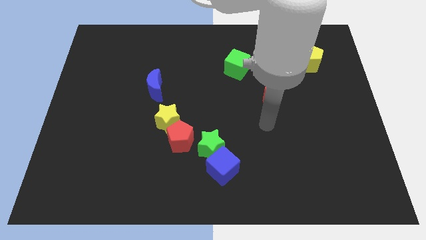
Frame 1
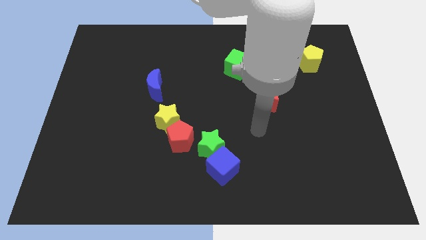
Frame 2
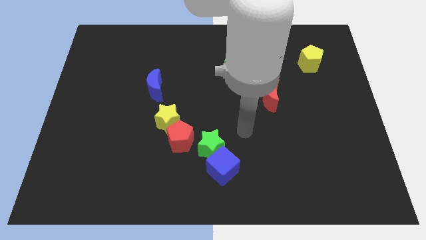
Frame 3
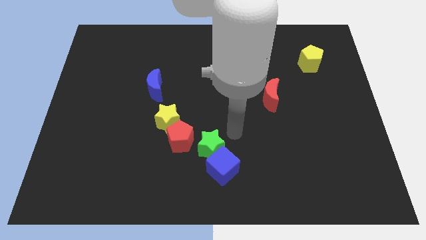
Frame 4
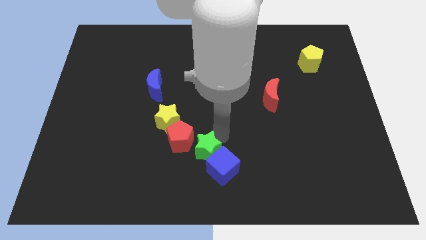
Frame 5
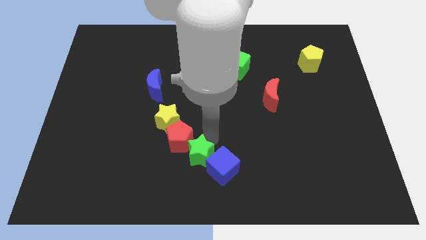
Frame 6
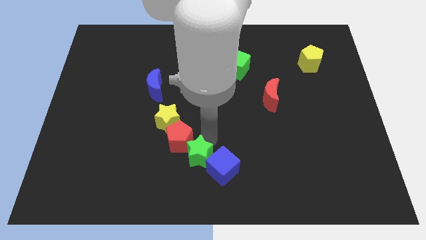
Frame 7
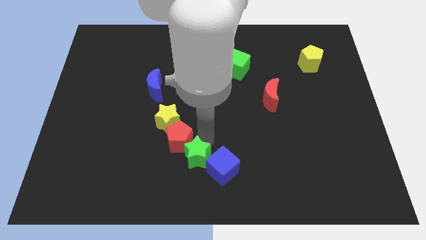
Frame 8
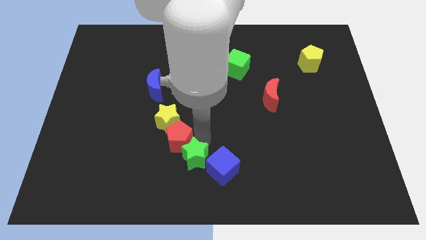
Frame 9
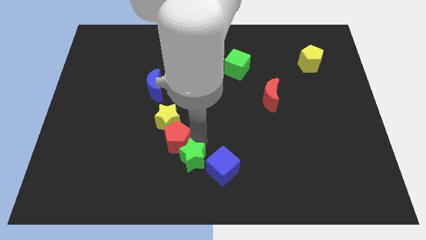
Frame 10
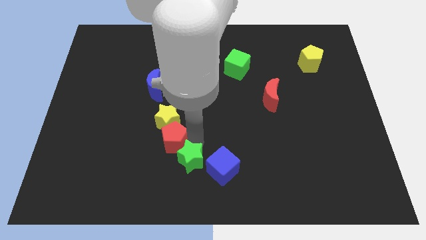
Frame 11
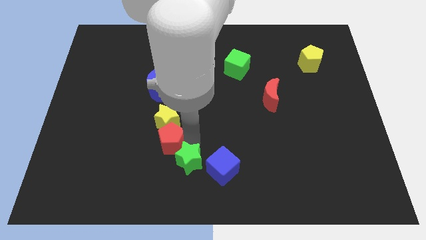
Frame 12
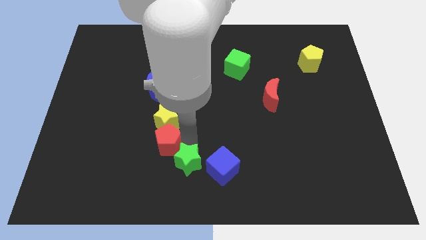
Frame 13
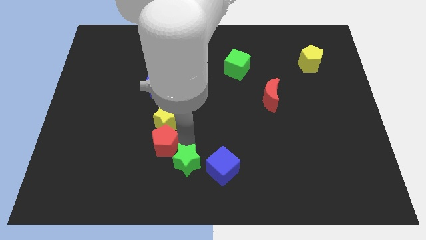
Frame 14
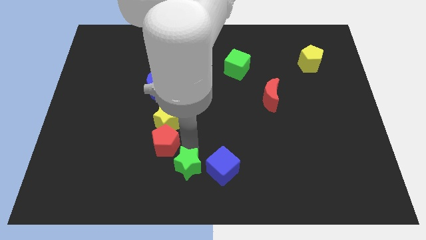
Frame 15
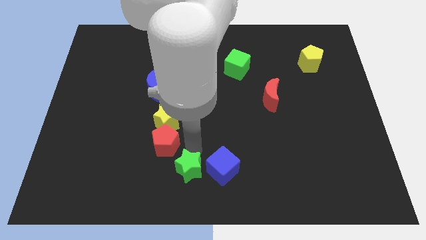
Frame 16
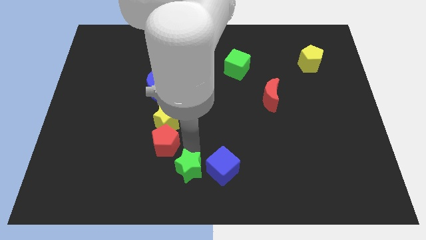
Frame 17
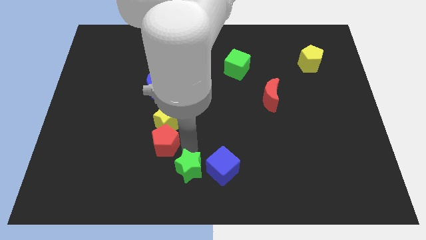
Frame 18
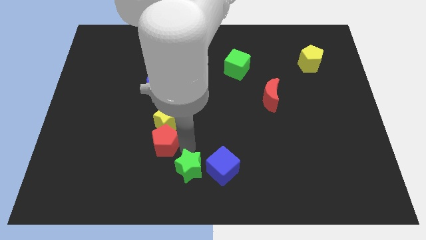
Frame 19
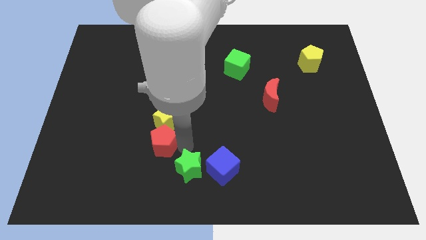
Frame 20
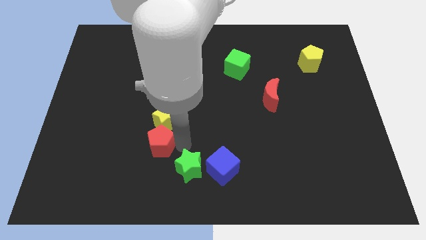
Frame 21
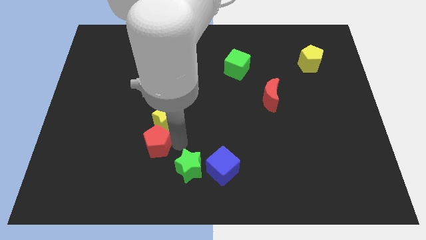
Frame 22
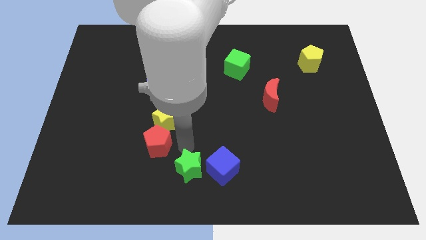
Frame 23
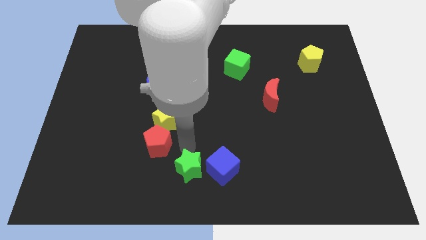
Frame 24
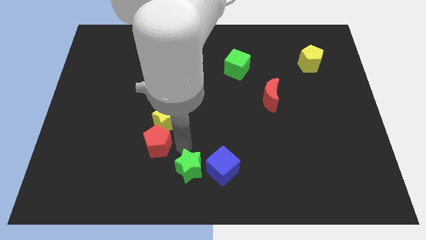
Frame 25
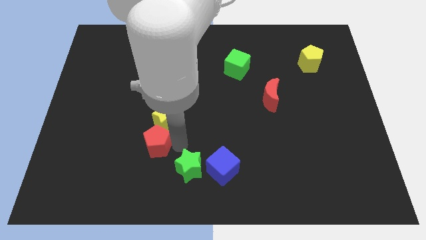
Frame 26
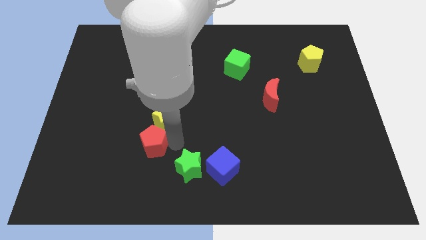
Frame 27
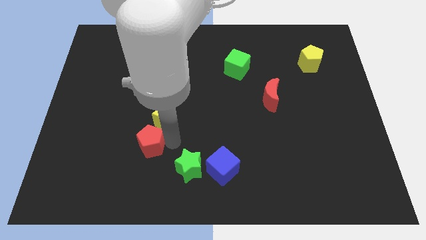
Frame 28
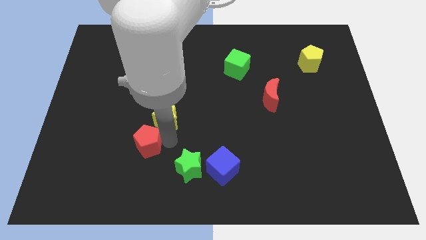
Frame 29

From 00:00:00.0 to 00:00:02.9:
push the red pentagon to the left slightly

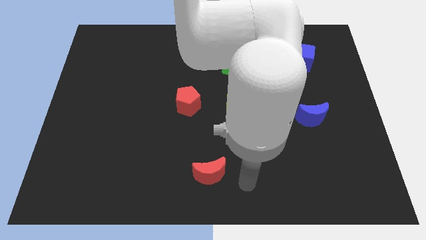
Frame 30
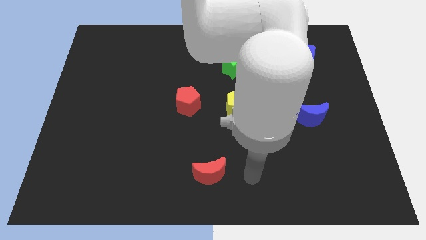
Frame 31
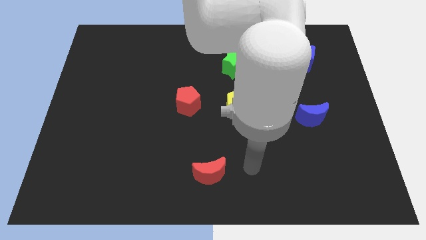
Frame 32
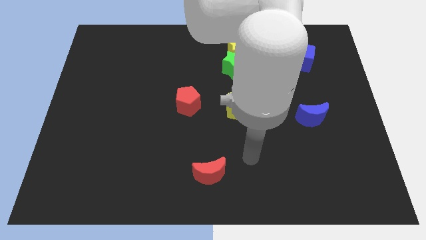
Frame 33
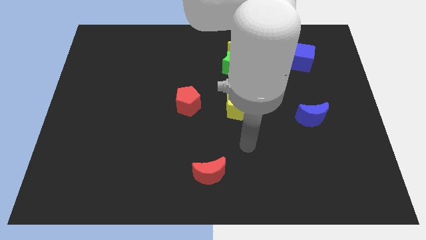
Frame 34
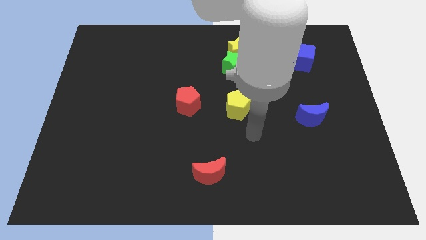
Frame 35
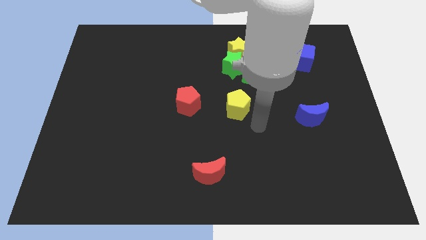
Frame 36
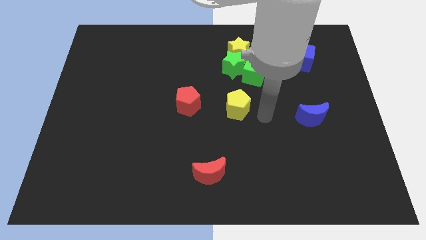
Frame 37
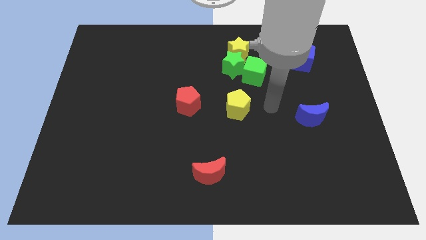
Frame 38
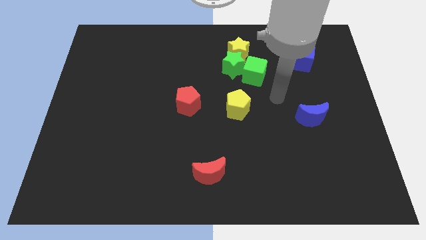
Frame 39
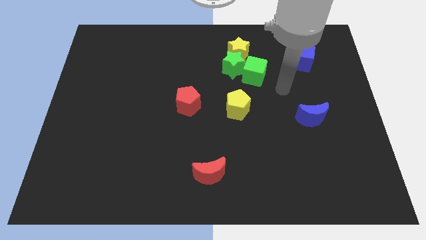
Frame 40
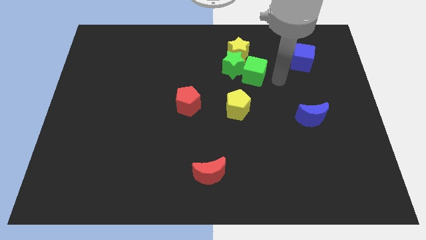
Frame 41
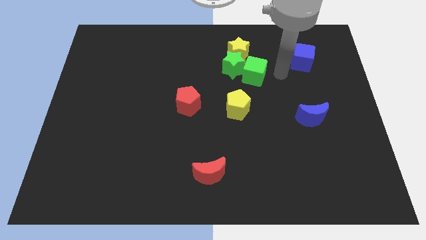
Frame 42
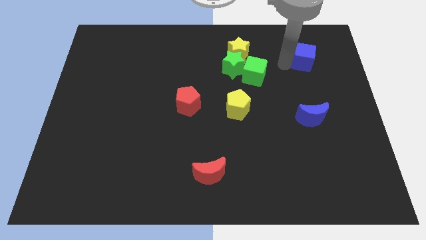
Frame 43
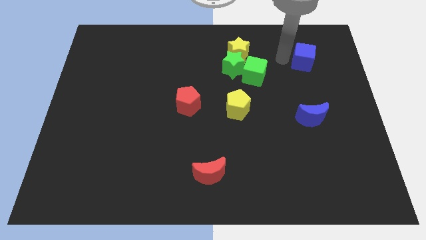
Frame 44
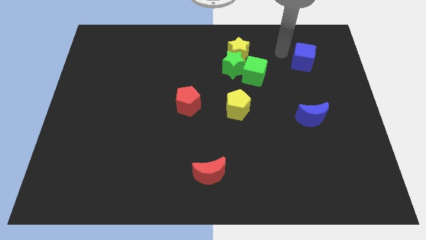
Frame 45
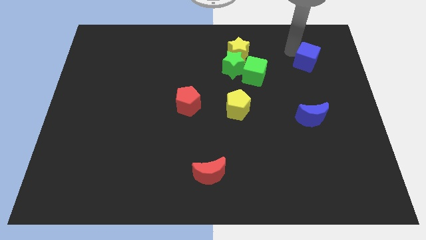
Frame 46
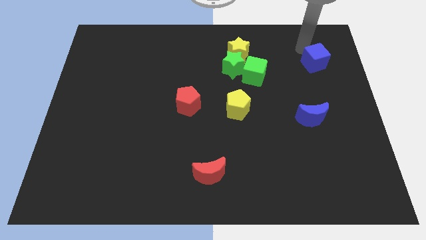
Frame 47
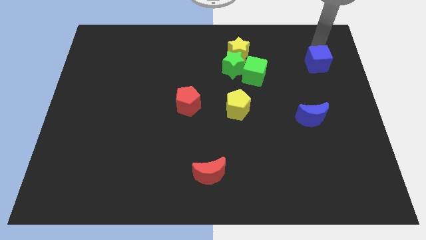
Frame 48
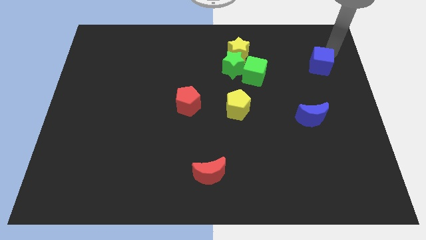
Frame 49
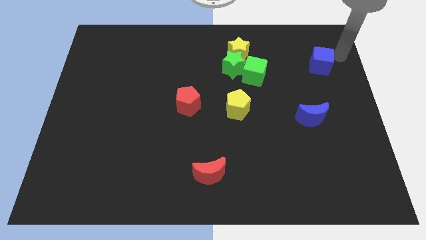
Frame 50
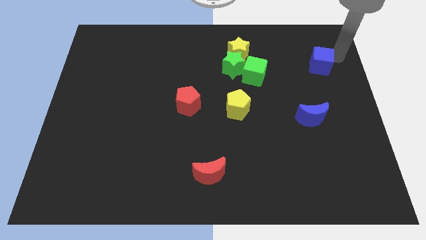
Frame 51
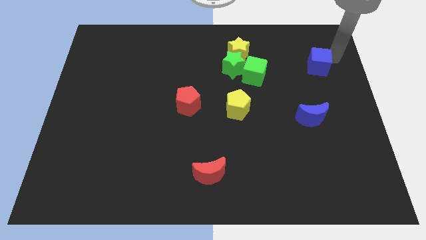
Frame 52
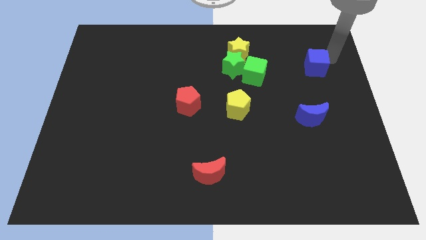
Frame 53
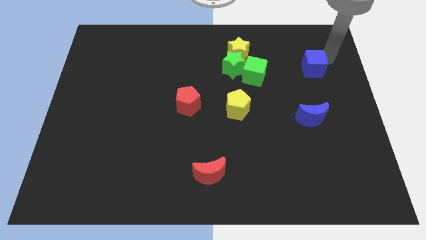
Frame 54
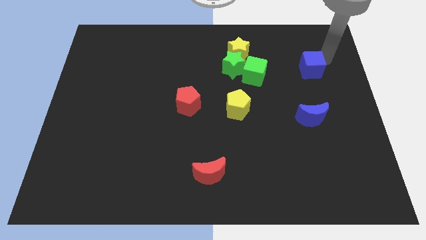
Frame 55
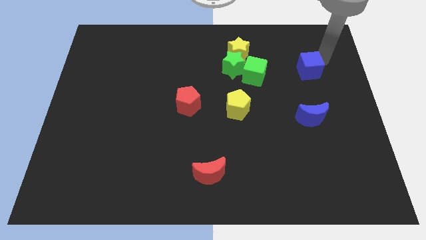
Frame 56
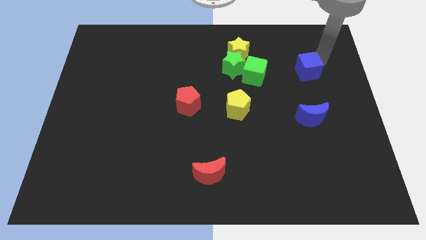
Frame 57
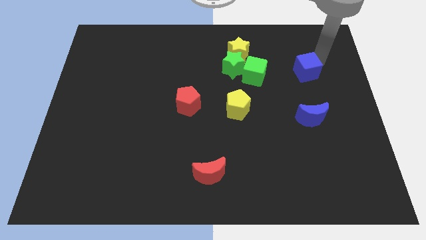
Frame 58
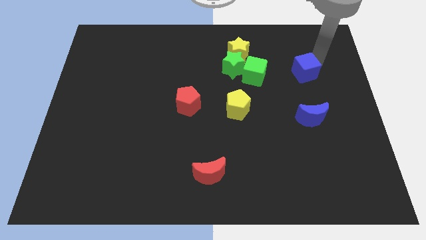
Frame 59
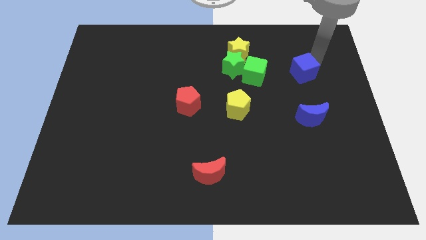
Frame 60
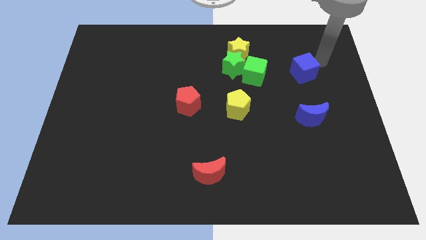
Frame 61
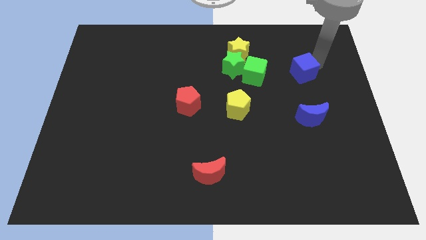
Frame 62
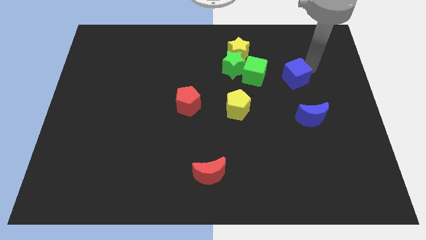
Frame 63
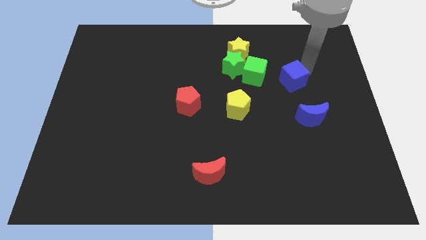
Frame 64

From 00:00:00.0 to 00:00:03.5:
push the blue cube downwards and left a little

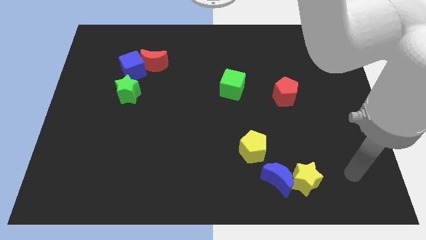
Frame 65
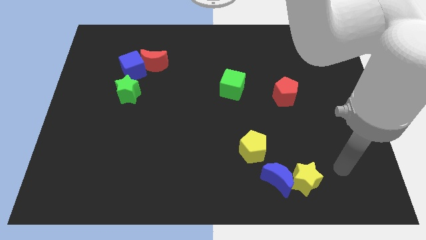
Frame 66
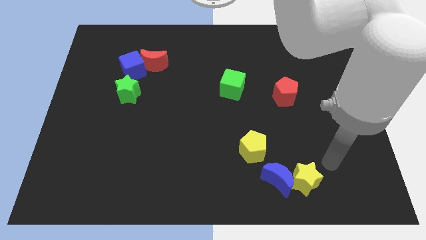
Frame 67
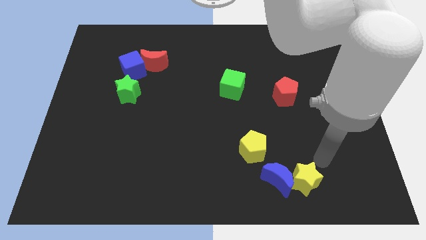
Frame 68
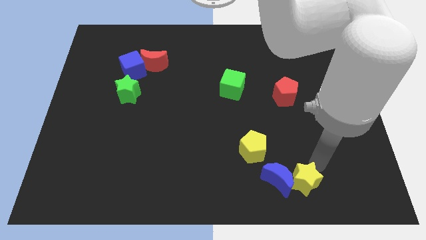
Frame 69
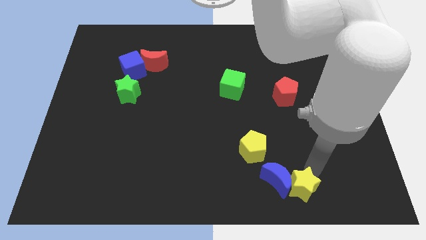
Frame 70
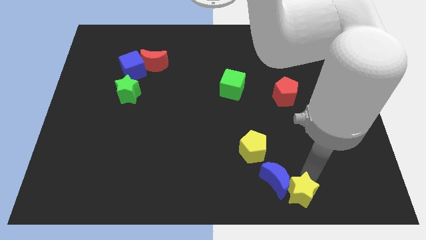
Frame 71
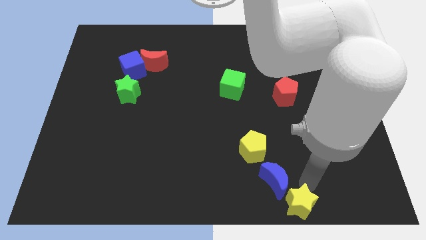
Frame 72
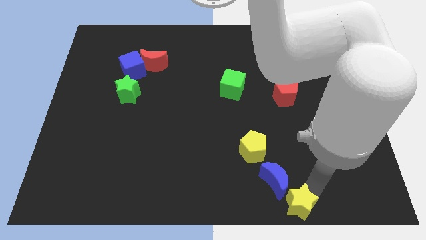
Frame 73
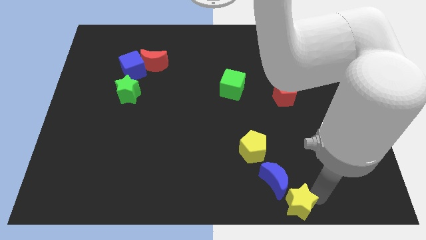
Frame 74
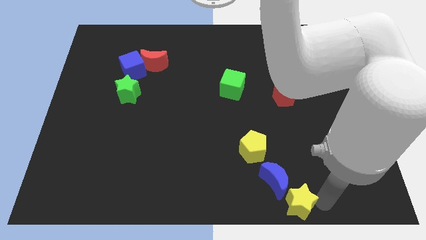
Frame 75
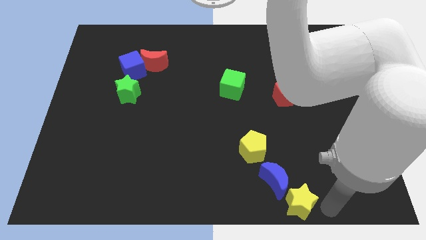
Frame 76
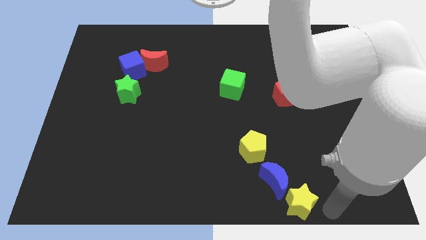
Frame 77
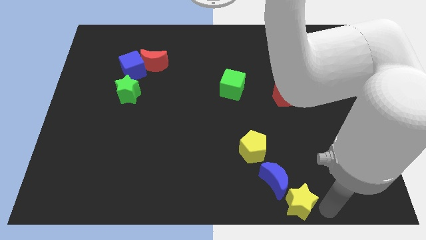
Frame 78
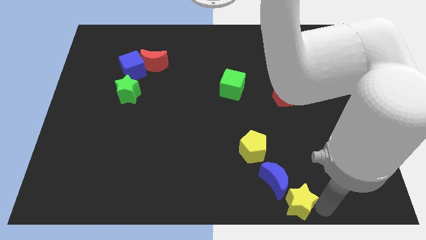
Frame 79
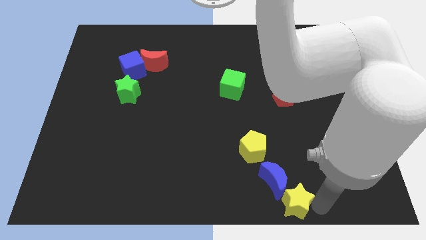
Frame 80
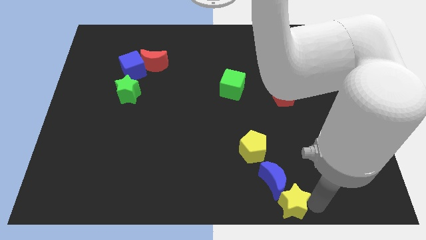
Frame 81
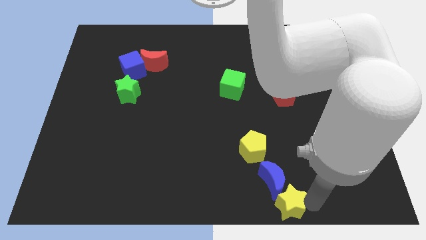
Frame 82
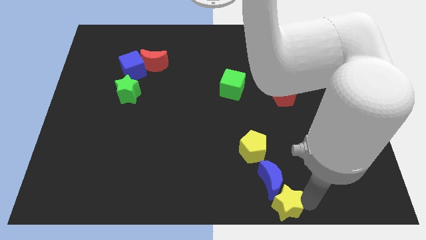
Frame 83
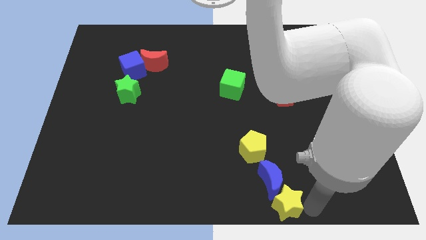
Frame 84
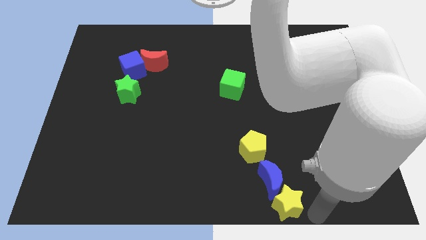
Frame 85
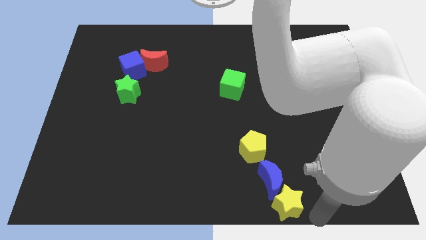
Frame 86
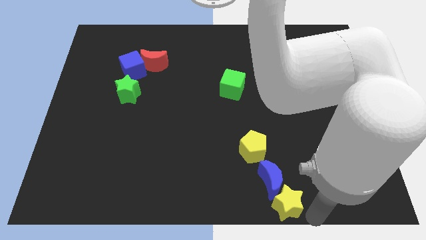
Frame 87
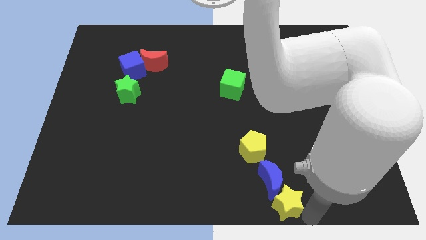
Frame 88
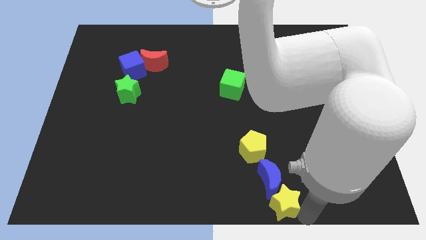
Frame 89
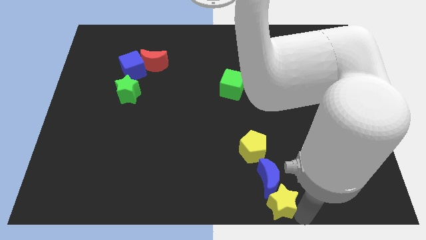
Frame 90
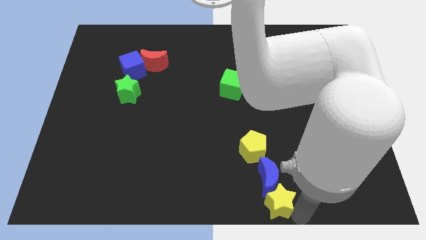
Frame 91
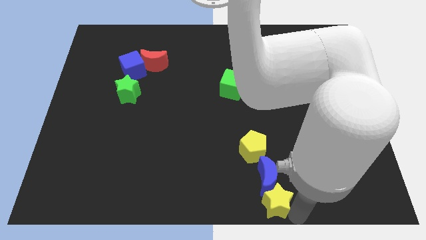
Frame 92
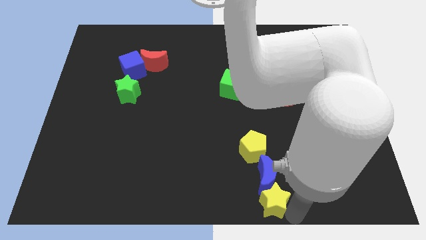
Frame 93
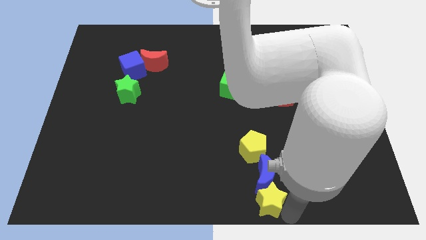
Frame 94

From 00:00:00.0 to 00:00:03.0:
move the yellow star somewhat to the left
